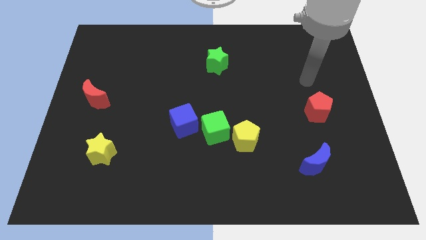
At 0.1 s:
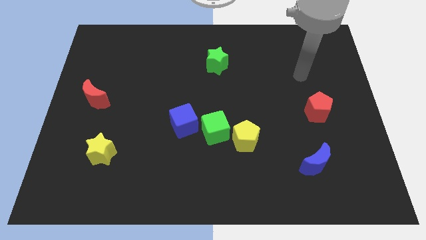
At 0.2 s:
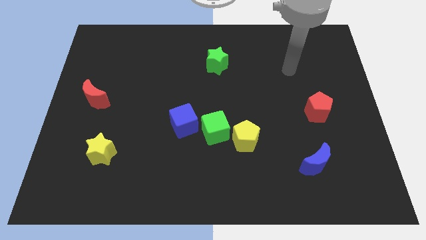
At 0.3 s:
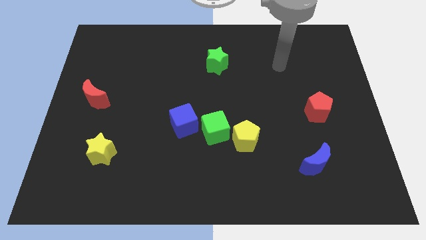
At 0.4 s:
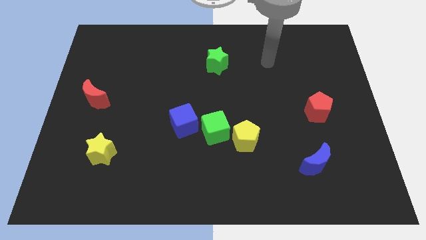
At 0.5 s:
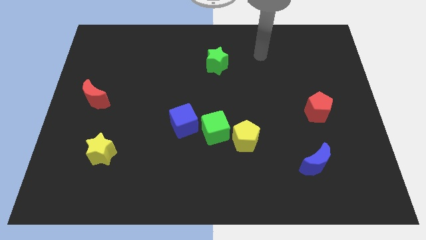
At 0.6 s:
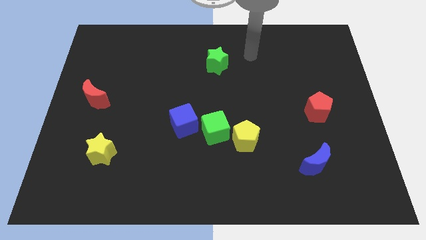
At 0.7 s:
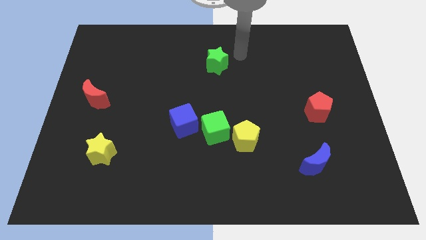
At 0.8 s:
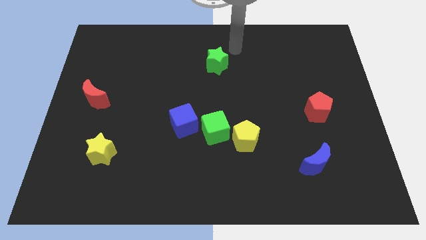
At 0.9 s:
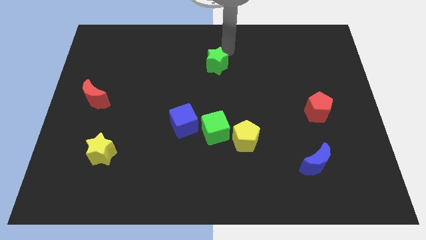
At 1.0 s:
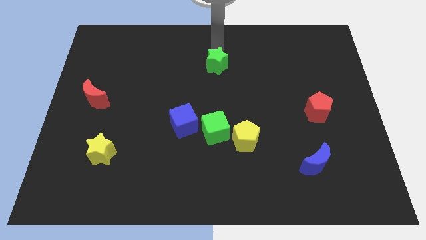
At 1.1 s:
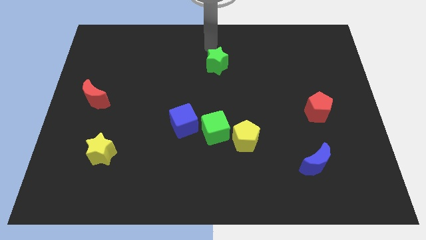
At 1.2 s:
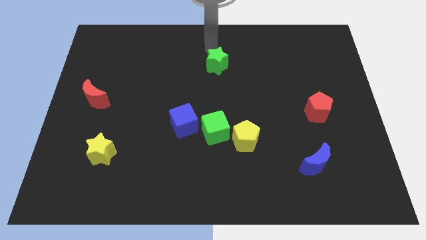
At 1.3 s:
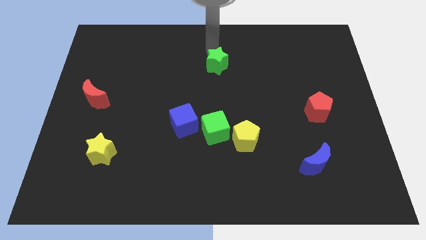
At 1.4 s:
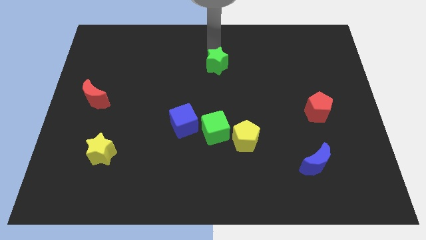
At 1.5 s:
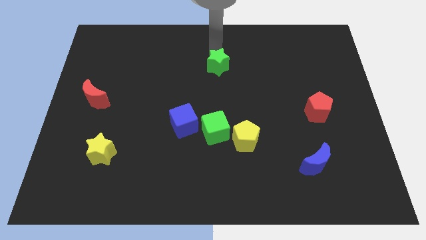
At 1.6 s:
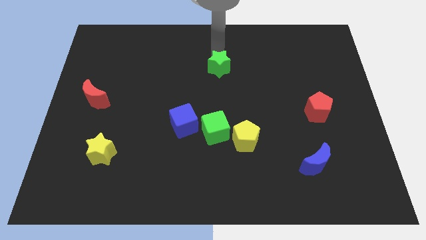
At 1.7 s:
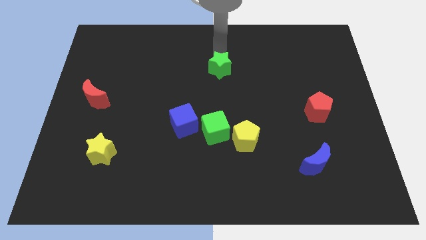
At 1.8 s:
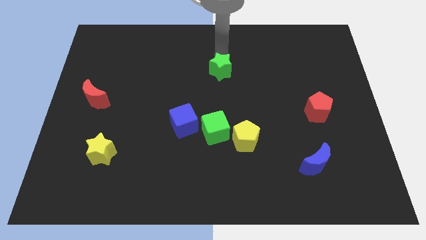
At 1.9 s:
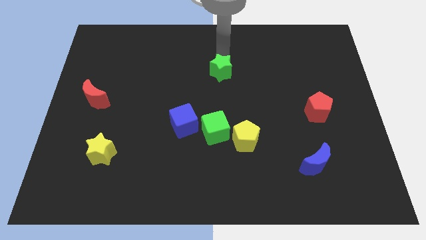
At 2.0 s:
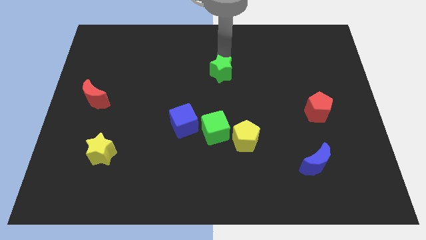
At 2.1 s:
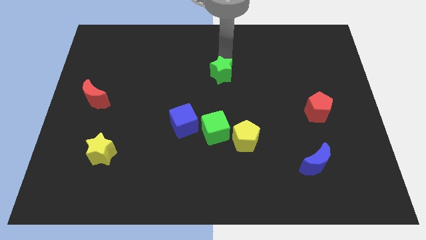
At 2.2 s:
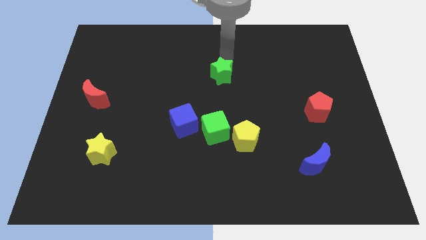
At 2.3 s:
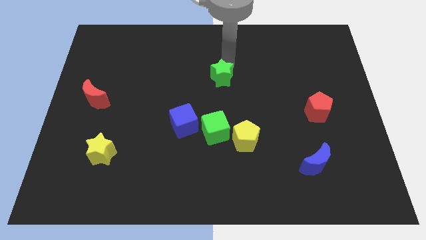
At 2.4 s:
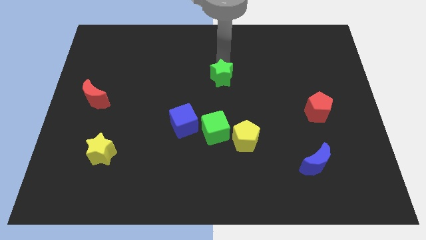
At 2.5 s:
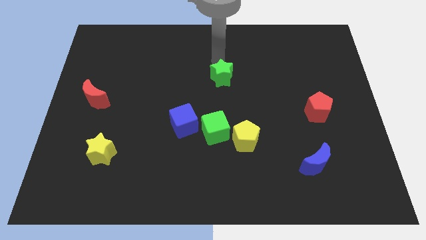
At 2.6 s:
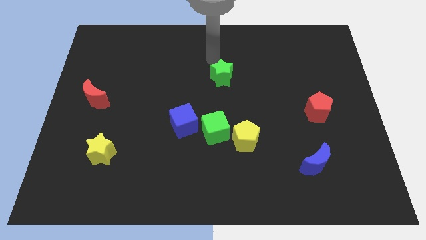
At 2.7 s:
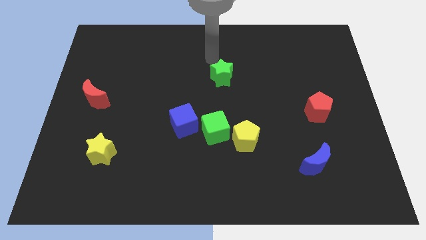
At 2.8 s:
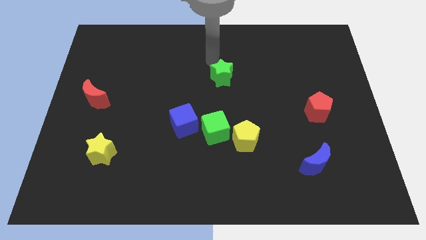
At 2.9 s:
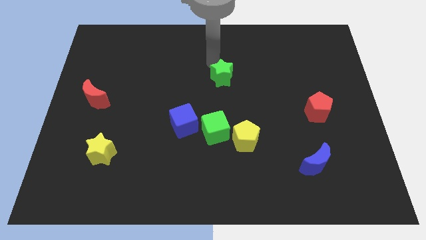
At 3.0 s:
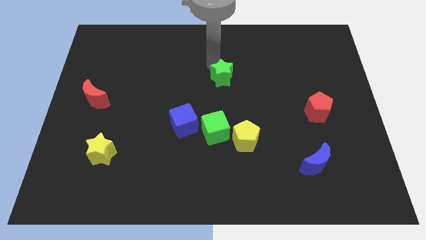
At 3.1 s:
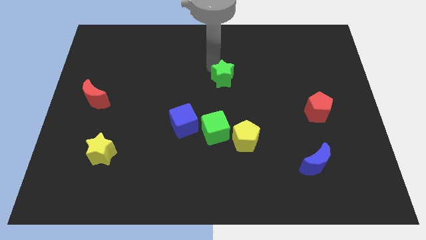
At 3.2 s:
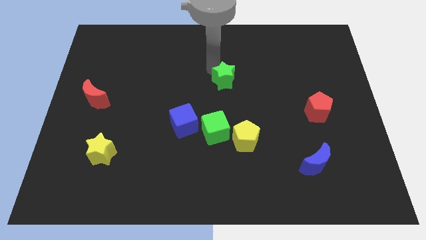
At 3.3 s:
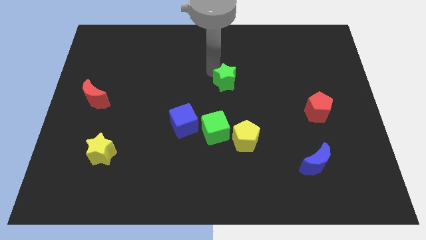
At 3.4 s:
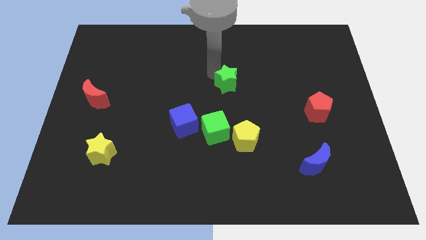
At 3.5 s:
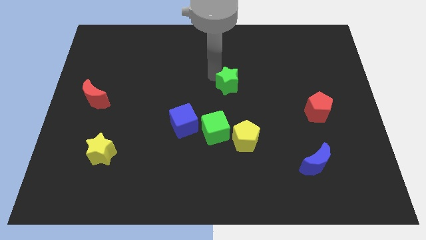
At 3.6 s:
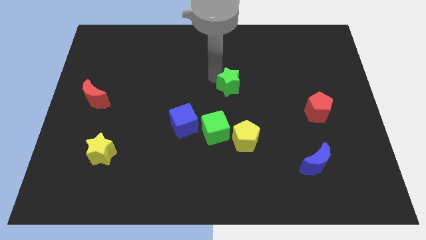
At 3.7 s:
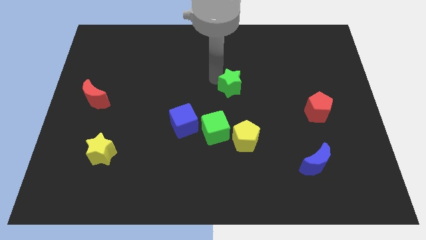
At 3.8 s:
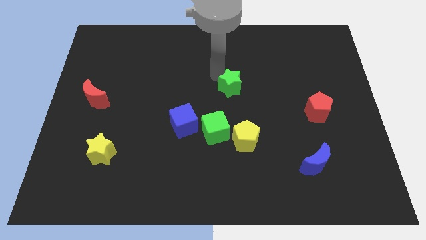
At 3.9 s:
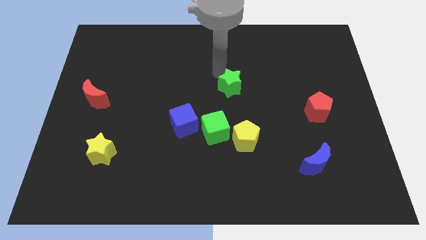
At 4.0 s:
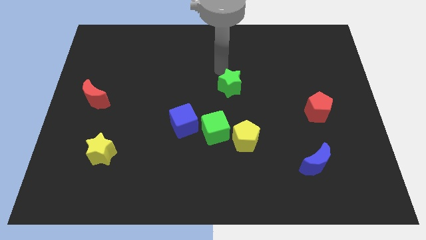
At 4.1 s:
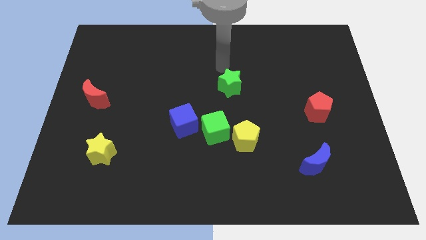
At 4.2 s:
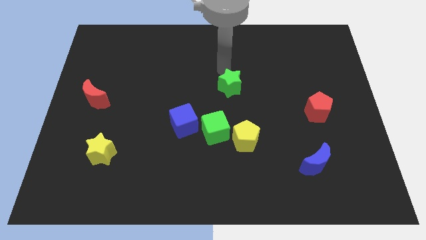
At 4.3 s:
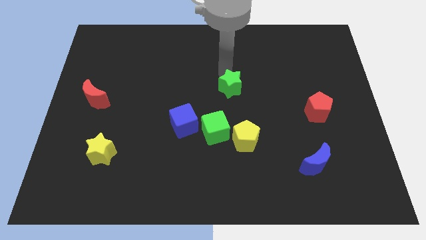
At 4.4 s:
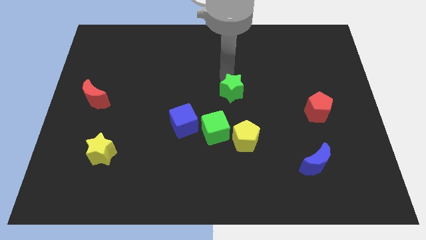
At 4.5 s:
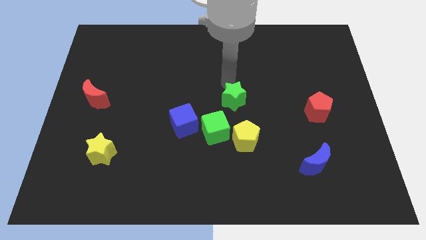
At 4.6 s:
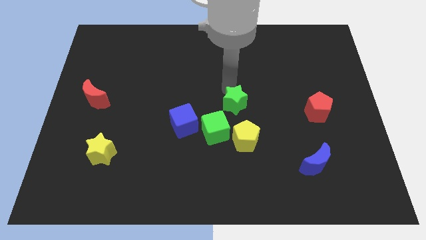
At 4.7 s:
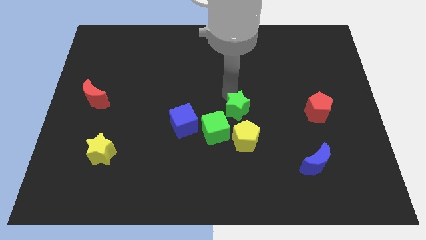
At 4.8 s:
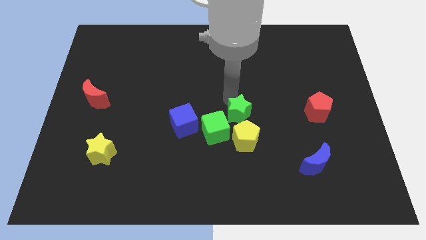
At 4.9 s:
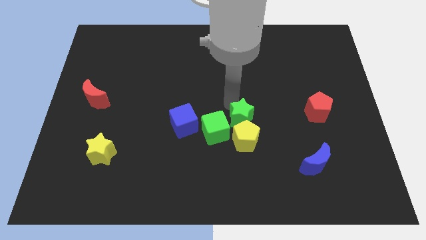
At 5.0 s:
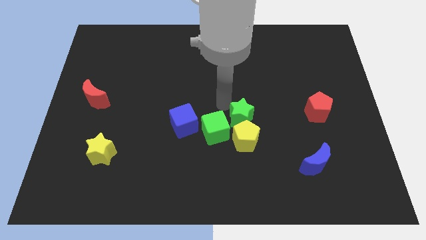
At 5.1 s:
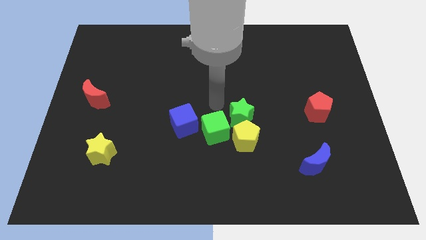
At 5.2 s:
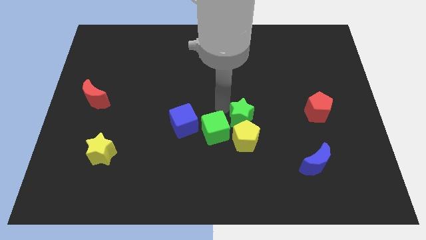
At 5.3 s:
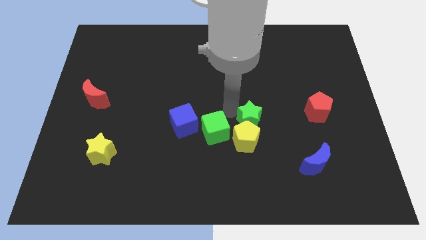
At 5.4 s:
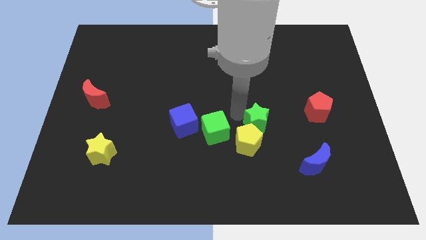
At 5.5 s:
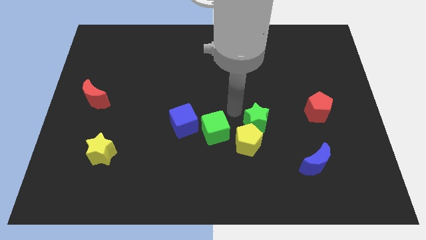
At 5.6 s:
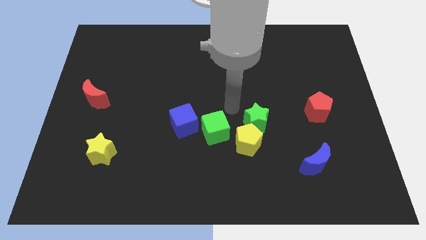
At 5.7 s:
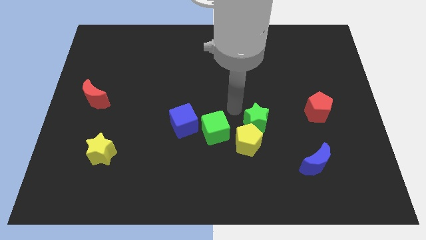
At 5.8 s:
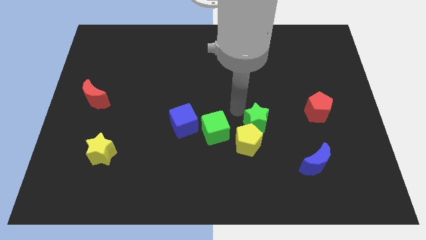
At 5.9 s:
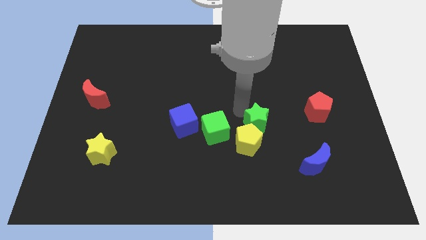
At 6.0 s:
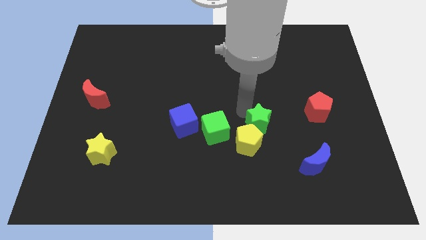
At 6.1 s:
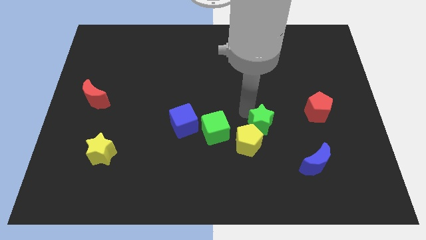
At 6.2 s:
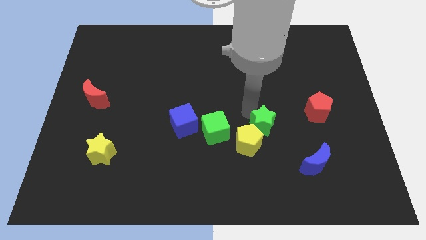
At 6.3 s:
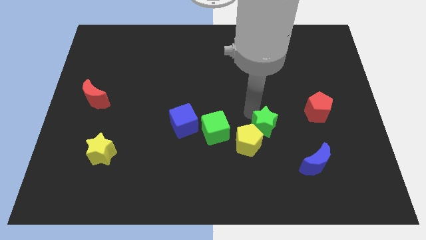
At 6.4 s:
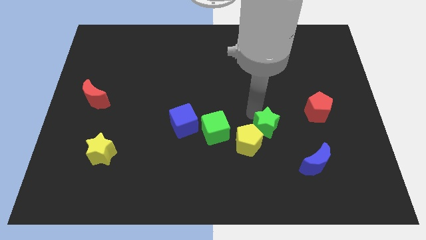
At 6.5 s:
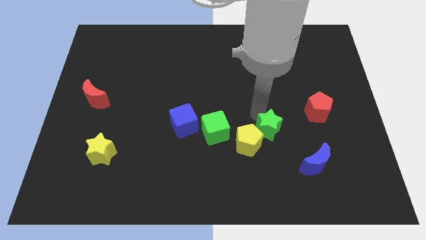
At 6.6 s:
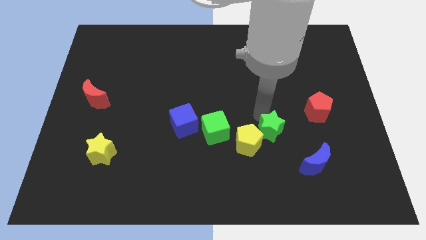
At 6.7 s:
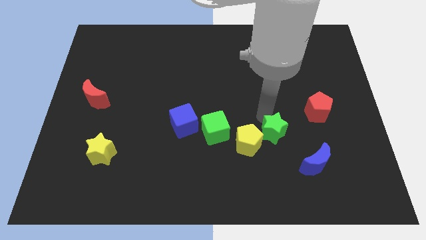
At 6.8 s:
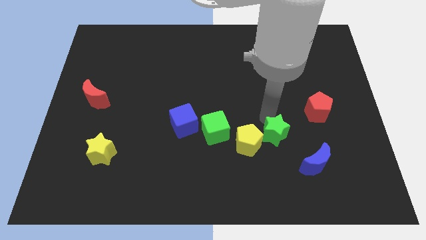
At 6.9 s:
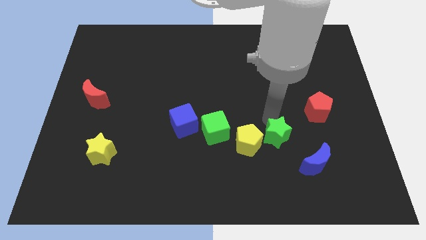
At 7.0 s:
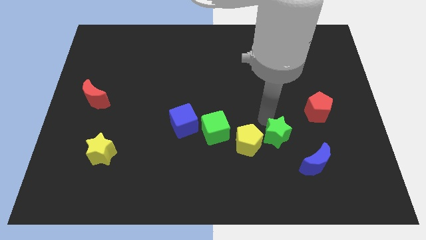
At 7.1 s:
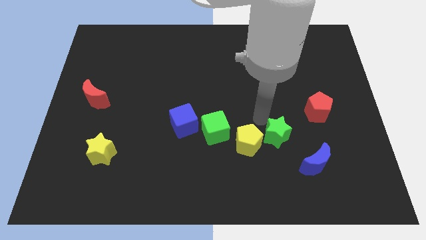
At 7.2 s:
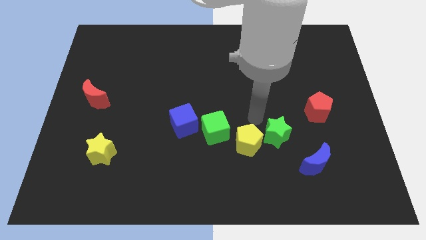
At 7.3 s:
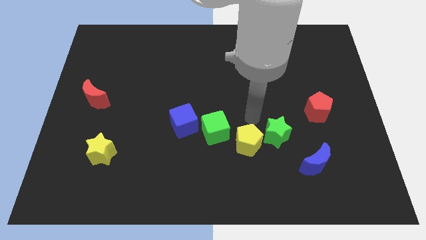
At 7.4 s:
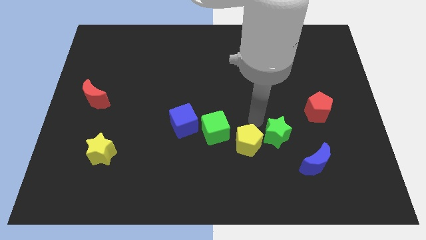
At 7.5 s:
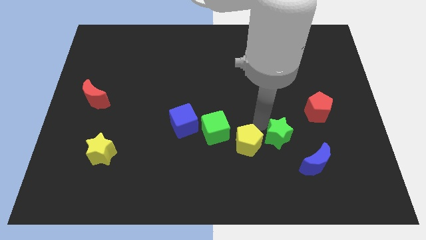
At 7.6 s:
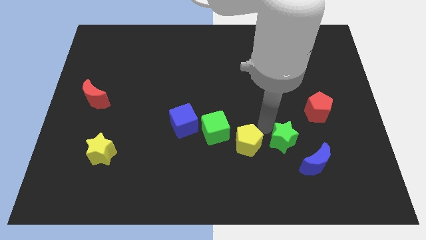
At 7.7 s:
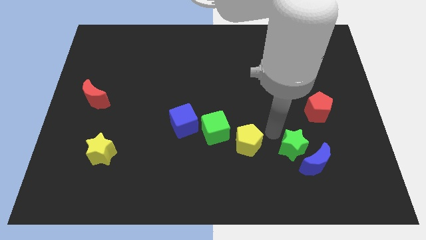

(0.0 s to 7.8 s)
push the green star to the blue moon
